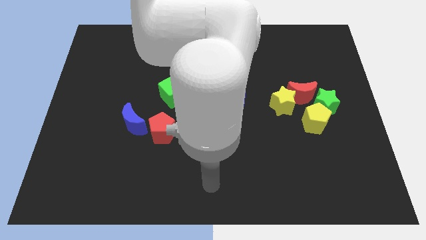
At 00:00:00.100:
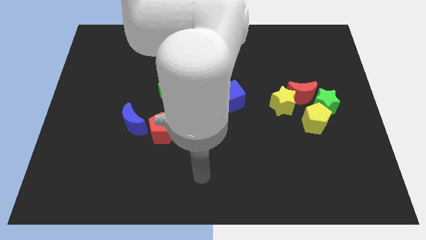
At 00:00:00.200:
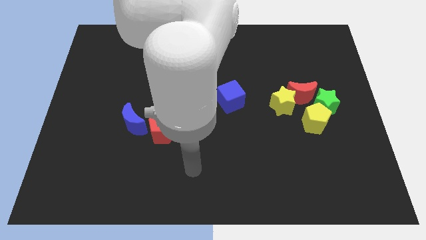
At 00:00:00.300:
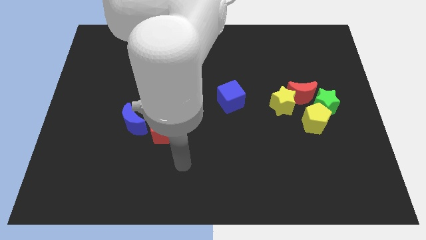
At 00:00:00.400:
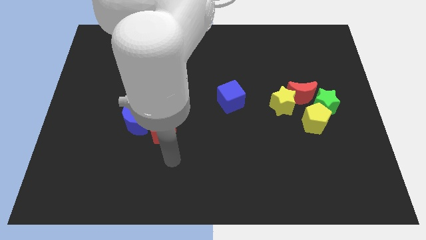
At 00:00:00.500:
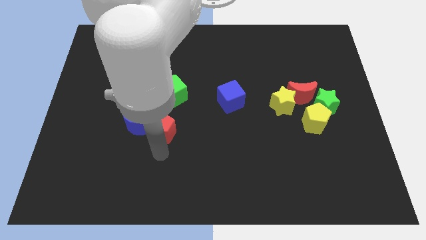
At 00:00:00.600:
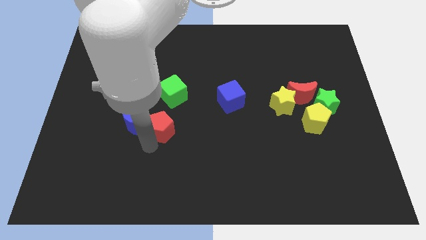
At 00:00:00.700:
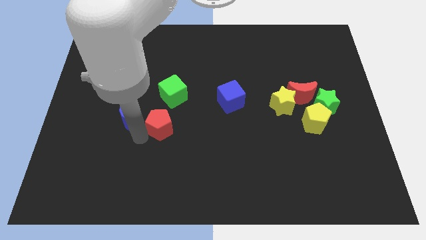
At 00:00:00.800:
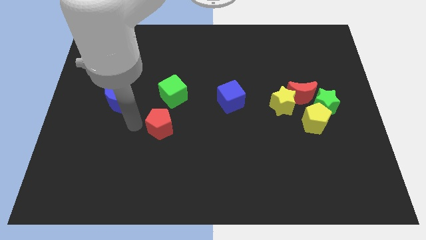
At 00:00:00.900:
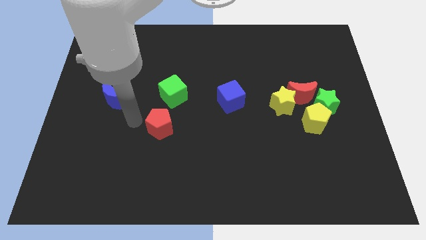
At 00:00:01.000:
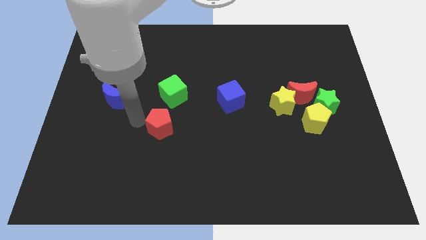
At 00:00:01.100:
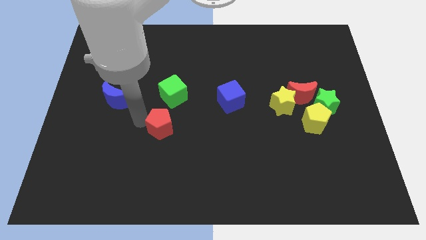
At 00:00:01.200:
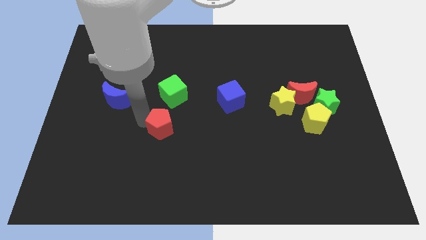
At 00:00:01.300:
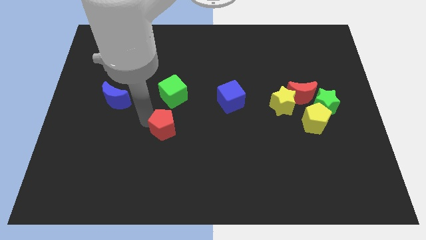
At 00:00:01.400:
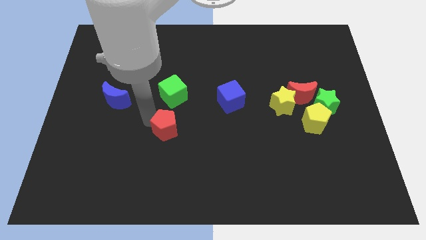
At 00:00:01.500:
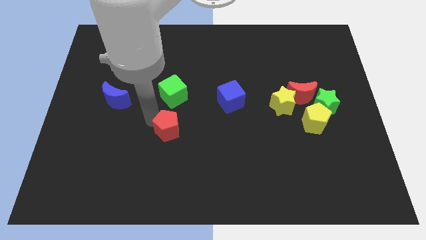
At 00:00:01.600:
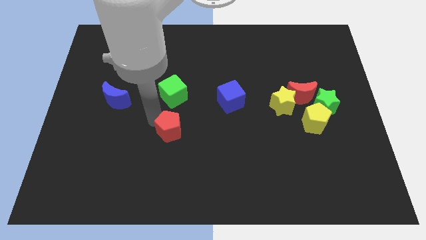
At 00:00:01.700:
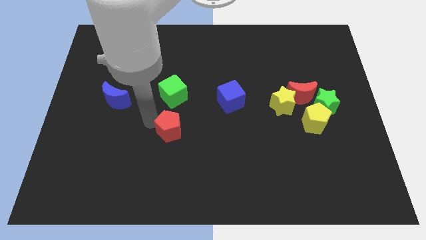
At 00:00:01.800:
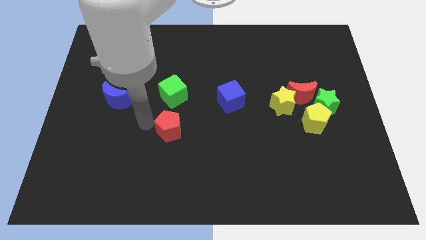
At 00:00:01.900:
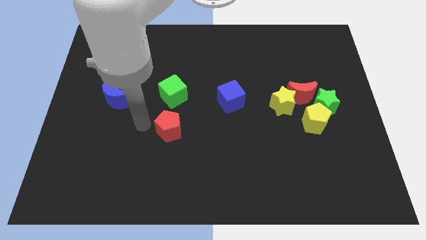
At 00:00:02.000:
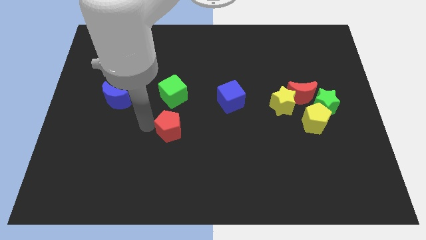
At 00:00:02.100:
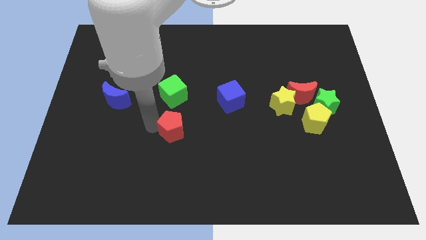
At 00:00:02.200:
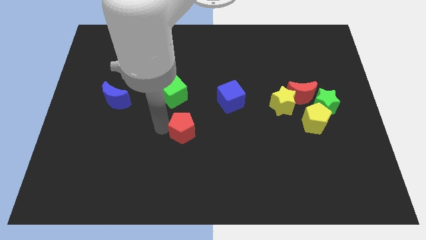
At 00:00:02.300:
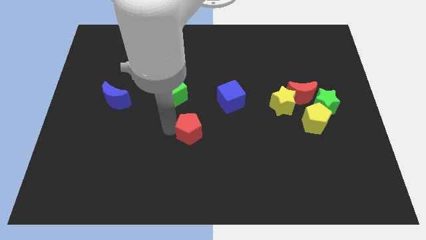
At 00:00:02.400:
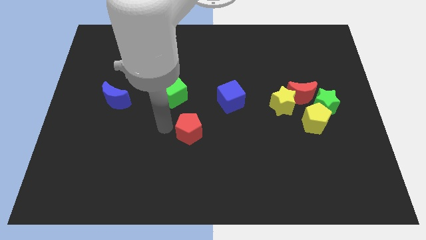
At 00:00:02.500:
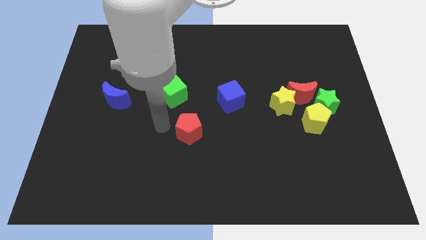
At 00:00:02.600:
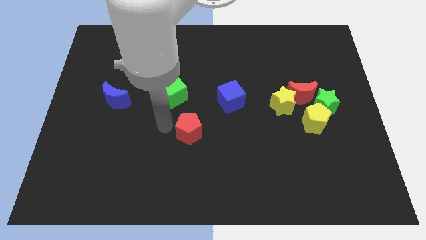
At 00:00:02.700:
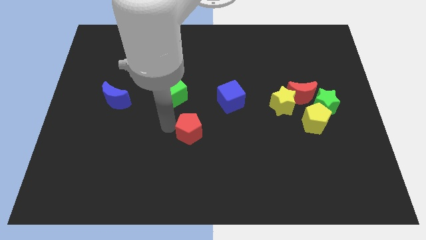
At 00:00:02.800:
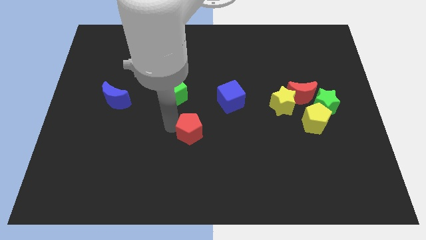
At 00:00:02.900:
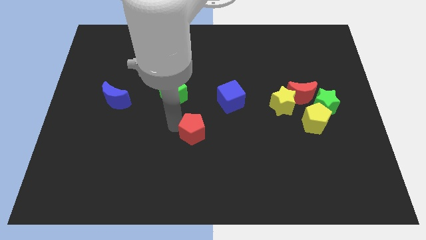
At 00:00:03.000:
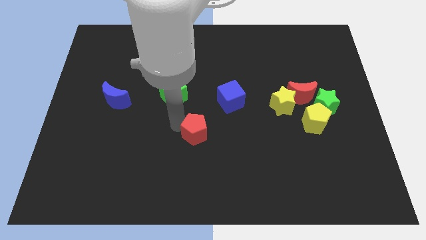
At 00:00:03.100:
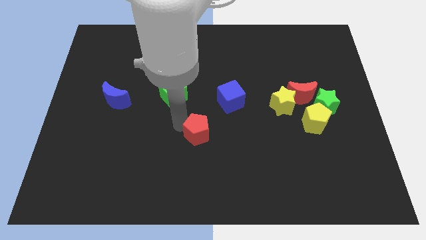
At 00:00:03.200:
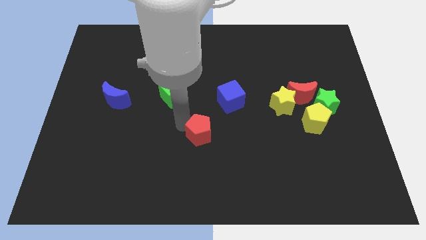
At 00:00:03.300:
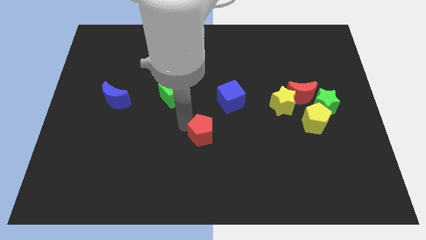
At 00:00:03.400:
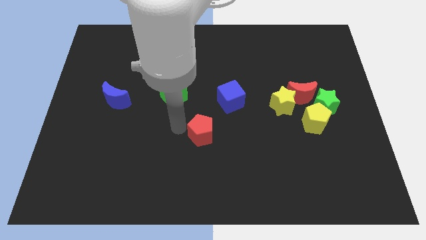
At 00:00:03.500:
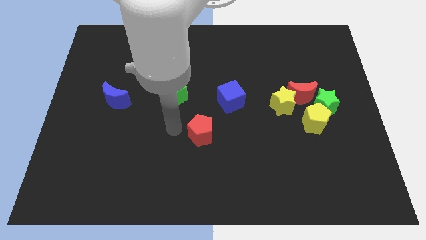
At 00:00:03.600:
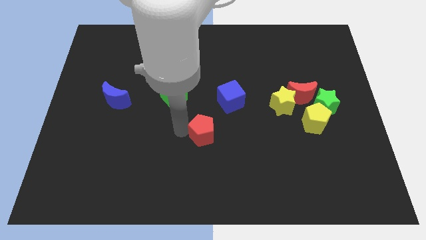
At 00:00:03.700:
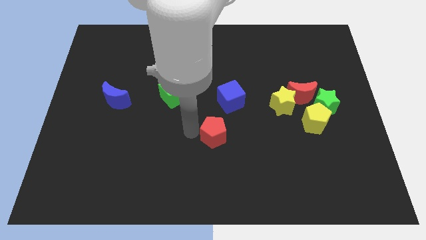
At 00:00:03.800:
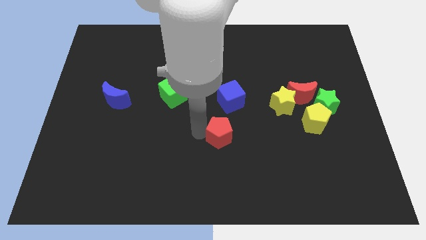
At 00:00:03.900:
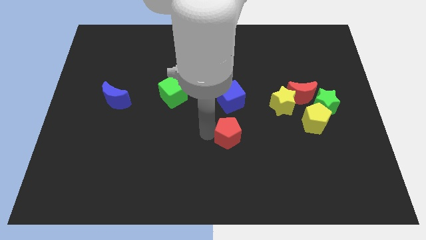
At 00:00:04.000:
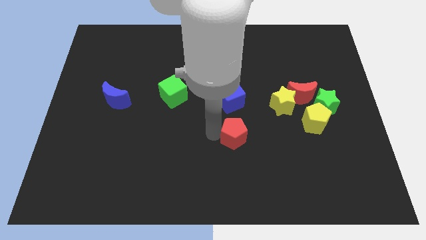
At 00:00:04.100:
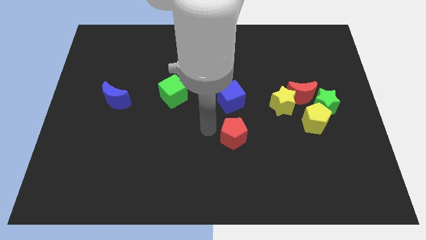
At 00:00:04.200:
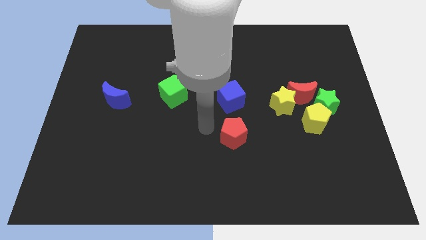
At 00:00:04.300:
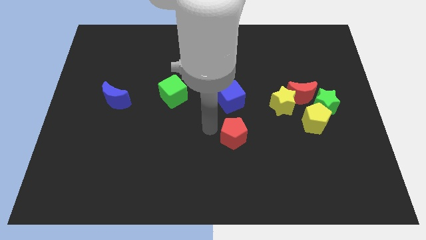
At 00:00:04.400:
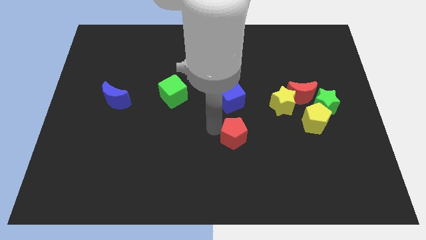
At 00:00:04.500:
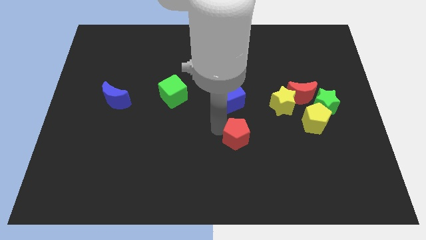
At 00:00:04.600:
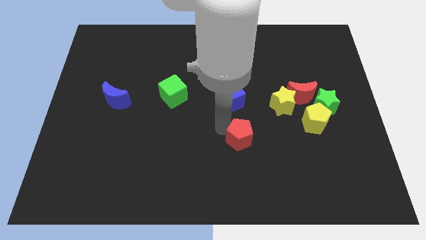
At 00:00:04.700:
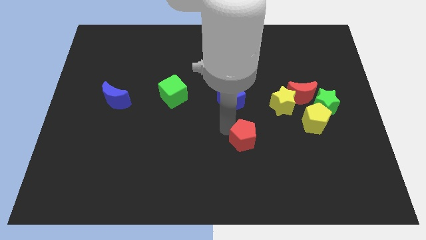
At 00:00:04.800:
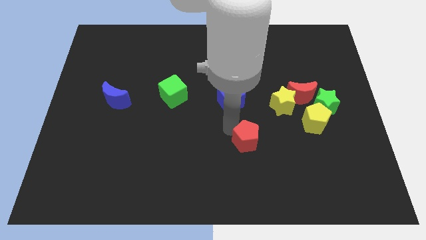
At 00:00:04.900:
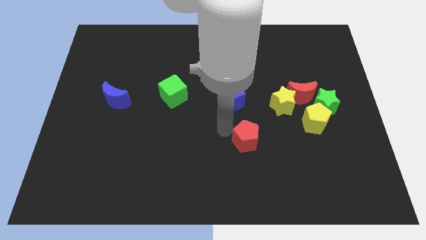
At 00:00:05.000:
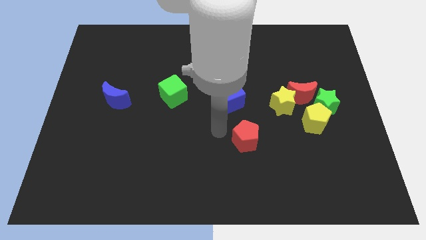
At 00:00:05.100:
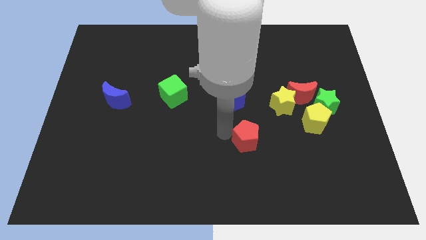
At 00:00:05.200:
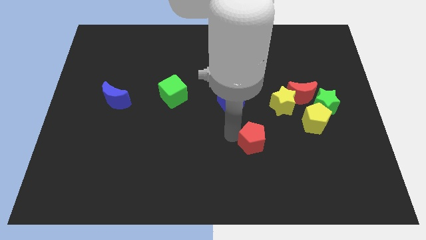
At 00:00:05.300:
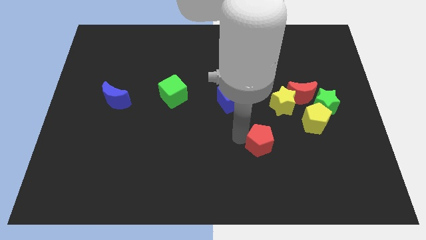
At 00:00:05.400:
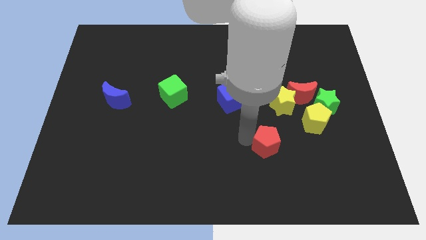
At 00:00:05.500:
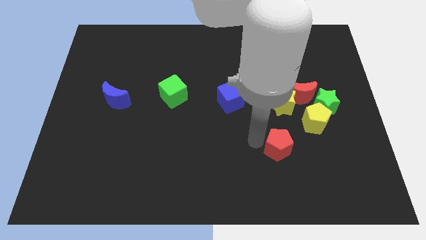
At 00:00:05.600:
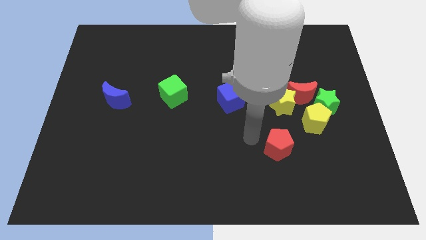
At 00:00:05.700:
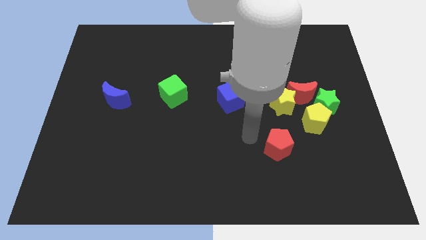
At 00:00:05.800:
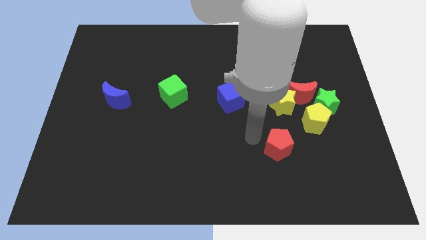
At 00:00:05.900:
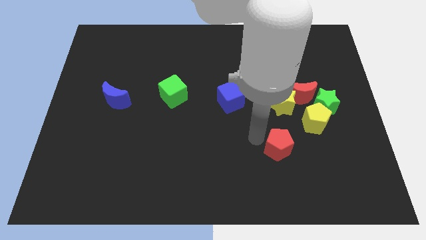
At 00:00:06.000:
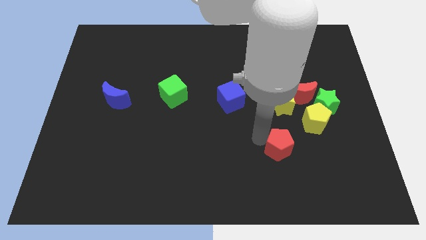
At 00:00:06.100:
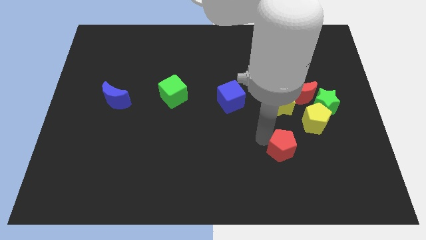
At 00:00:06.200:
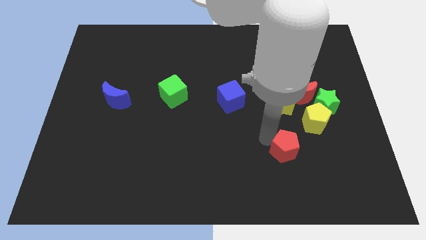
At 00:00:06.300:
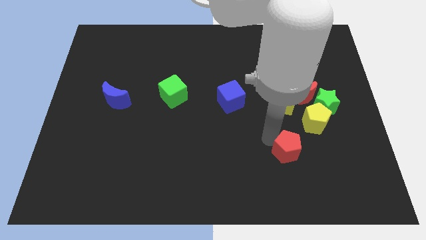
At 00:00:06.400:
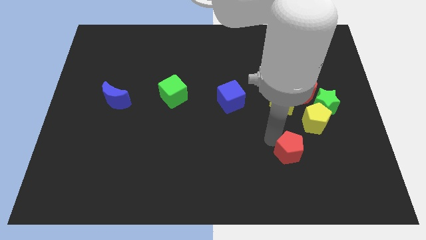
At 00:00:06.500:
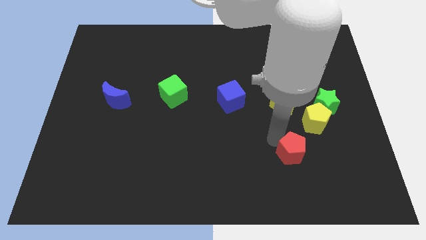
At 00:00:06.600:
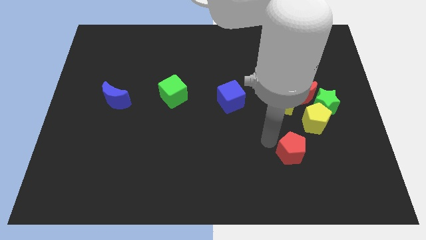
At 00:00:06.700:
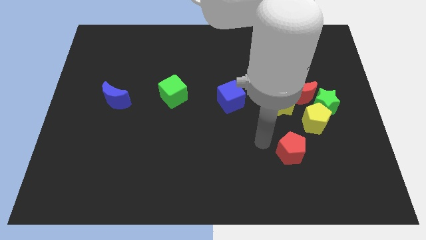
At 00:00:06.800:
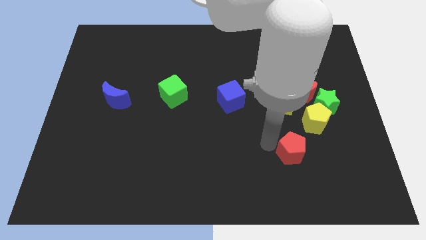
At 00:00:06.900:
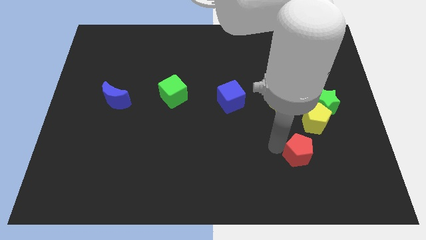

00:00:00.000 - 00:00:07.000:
push the red pentagon below the yellow pentagon

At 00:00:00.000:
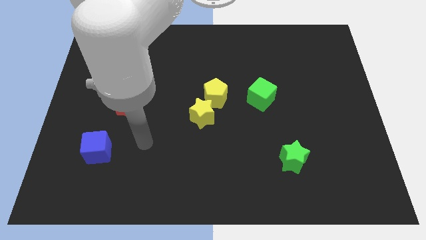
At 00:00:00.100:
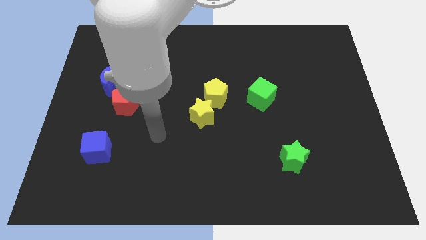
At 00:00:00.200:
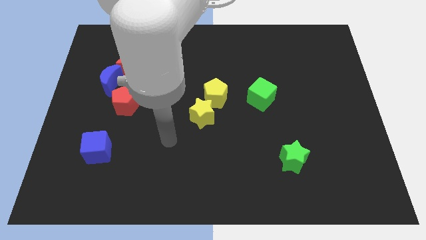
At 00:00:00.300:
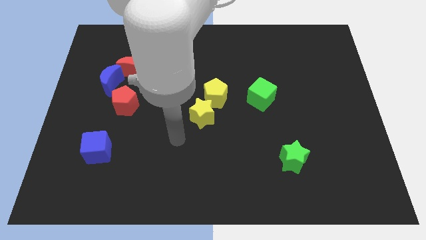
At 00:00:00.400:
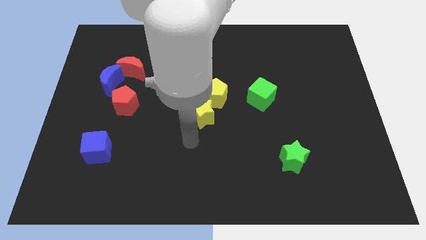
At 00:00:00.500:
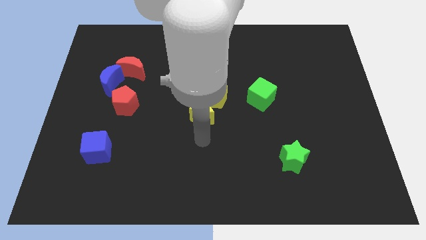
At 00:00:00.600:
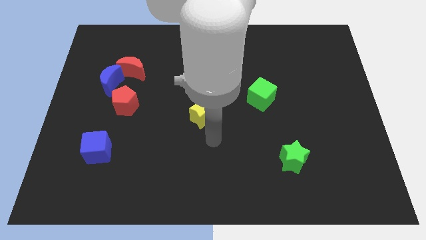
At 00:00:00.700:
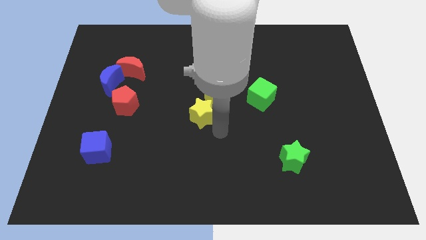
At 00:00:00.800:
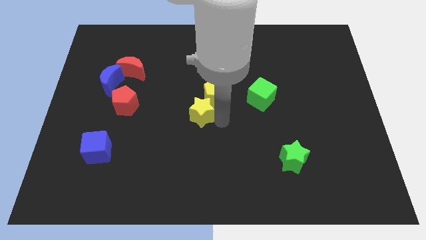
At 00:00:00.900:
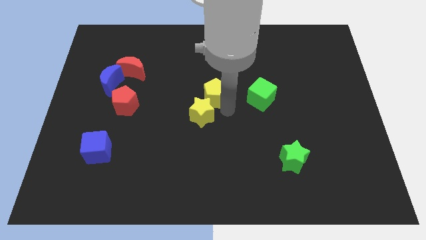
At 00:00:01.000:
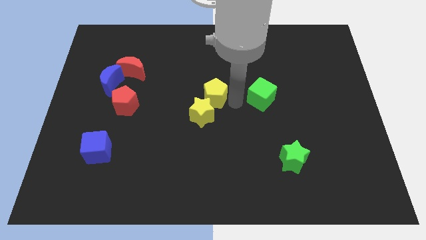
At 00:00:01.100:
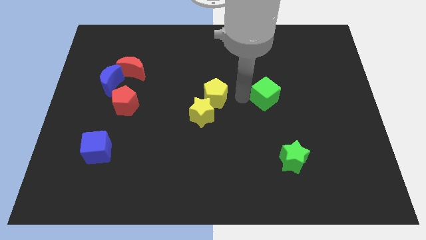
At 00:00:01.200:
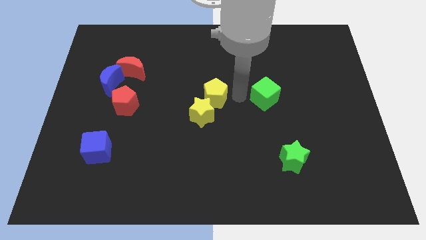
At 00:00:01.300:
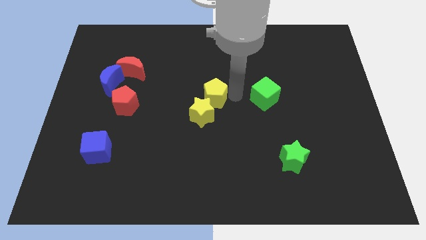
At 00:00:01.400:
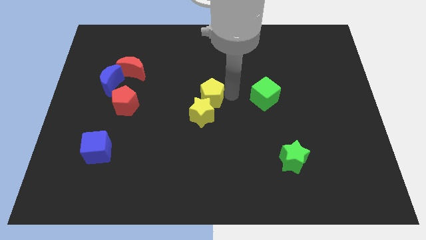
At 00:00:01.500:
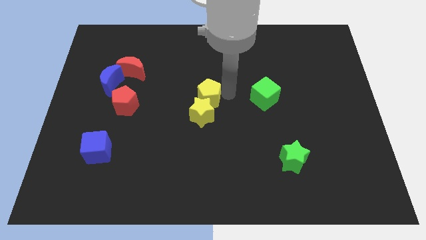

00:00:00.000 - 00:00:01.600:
put the yellow pentagon to the top left of the yellow star
